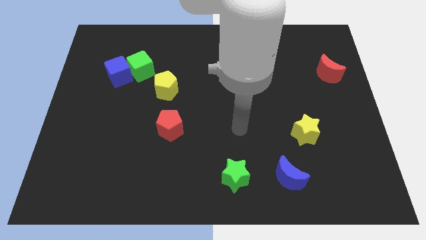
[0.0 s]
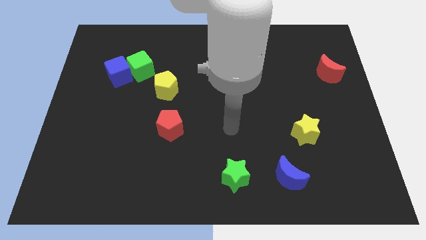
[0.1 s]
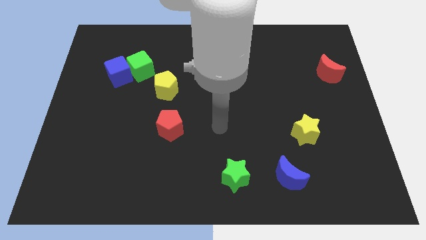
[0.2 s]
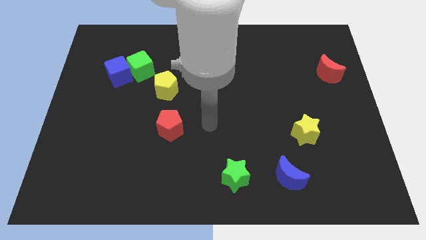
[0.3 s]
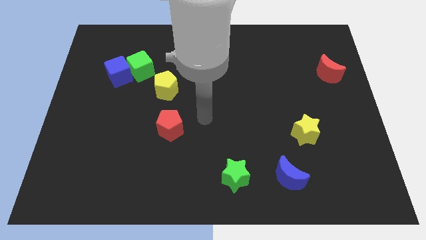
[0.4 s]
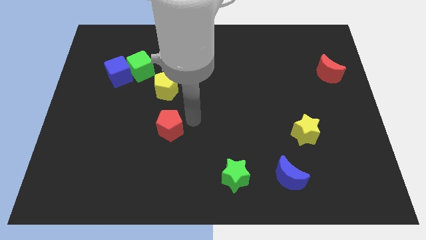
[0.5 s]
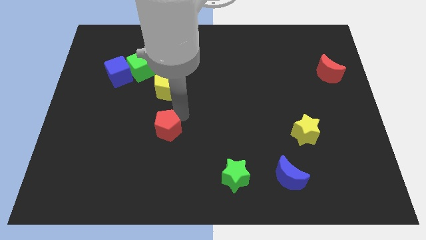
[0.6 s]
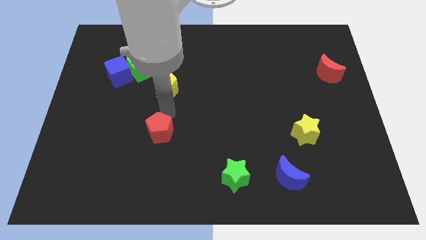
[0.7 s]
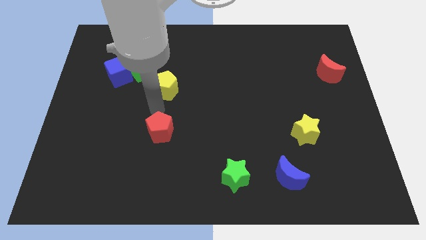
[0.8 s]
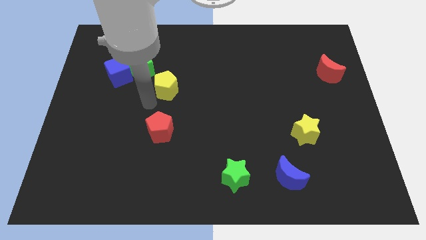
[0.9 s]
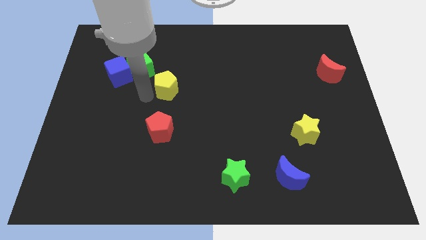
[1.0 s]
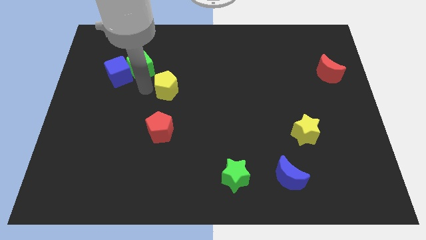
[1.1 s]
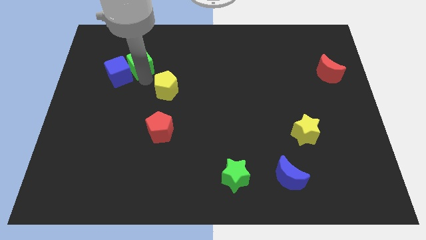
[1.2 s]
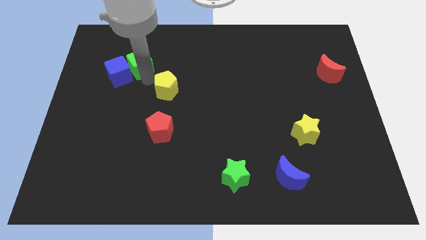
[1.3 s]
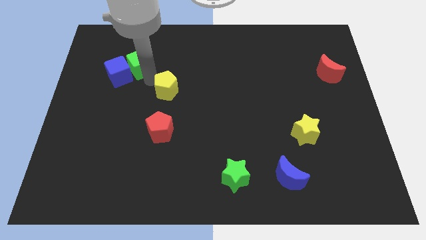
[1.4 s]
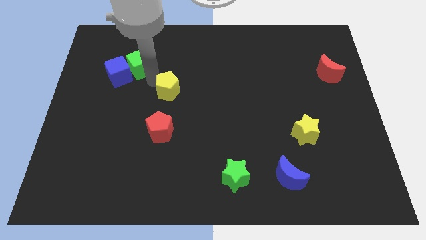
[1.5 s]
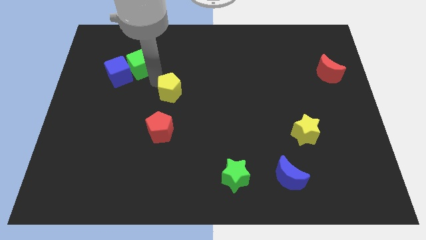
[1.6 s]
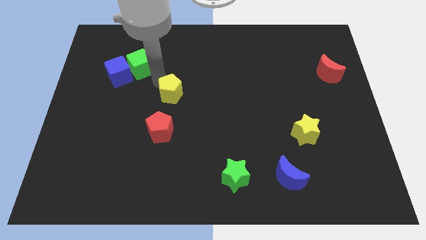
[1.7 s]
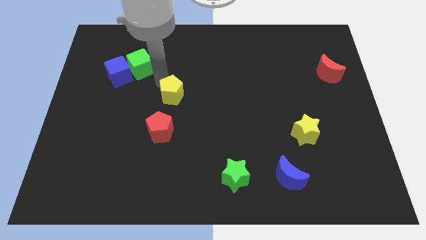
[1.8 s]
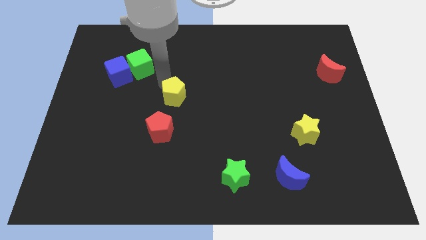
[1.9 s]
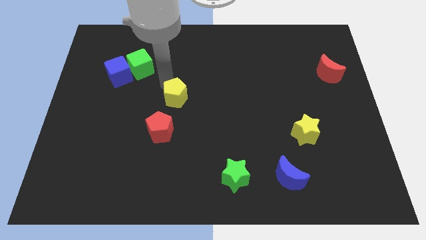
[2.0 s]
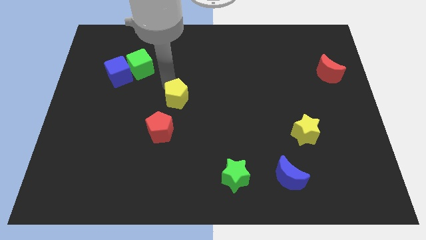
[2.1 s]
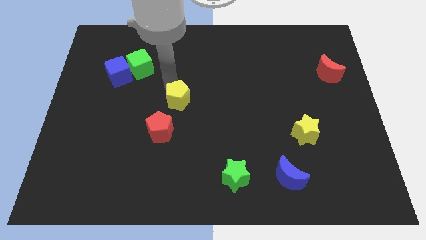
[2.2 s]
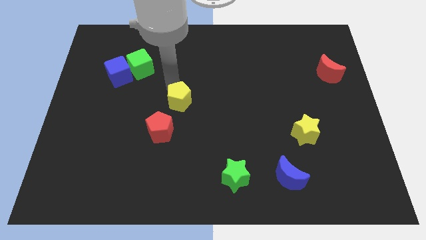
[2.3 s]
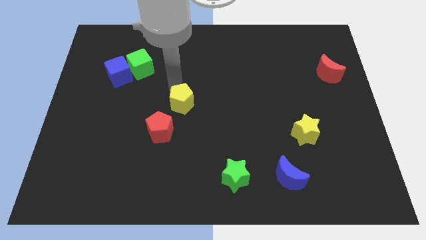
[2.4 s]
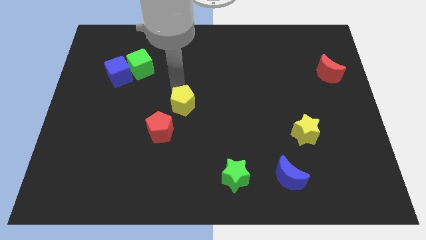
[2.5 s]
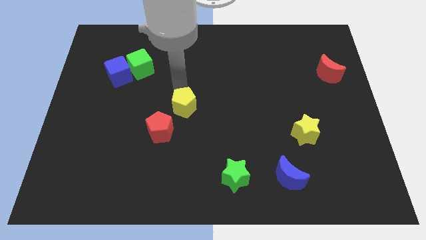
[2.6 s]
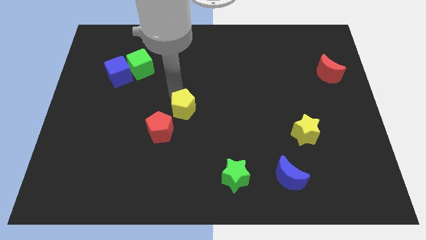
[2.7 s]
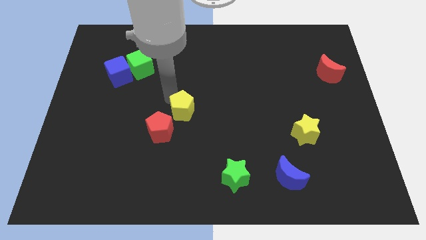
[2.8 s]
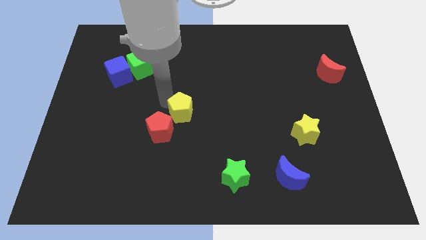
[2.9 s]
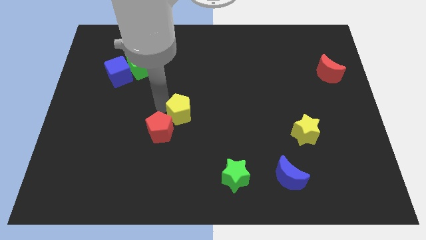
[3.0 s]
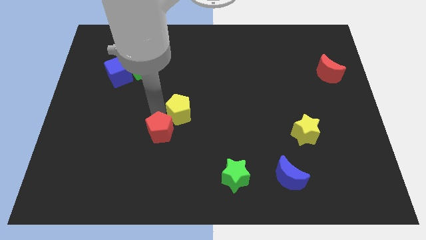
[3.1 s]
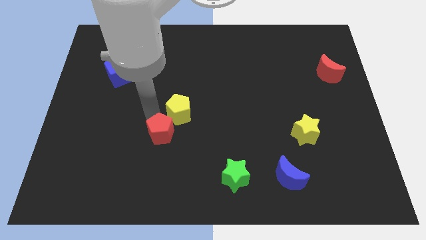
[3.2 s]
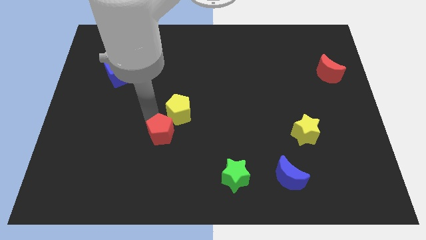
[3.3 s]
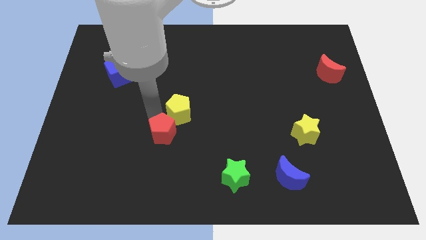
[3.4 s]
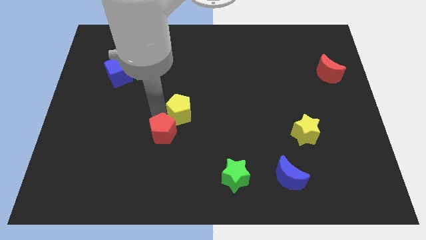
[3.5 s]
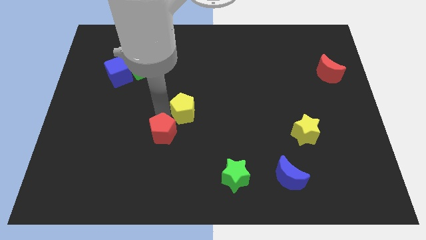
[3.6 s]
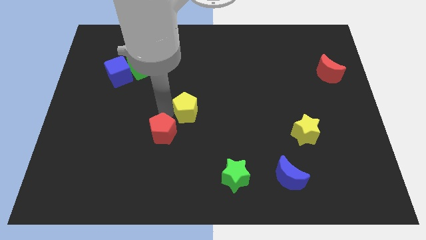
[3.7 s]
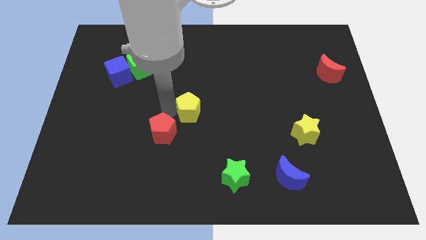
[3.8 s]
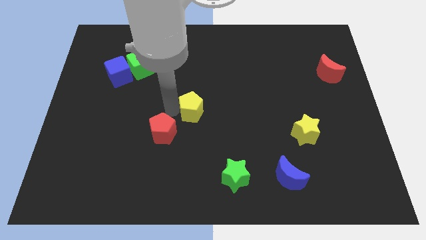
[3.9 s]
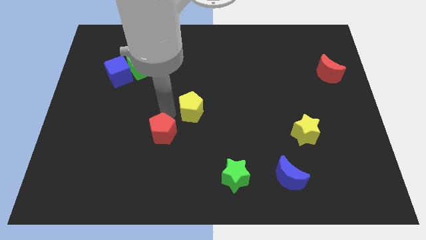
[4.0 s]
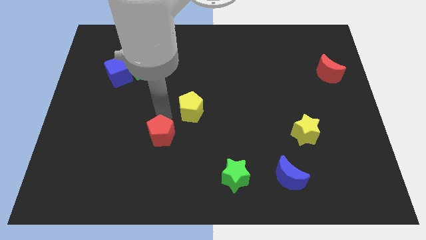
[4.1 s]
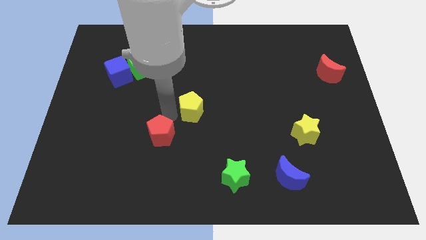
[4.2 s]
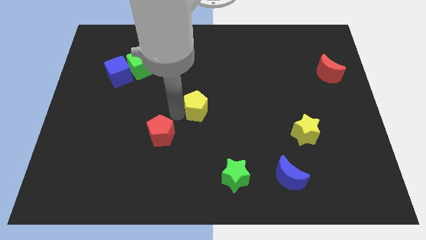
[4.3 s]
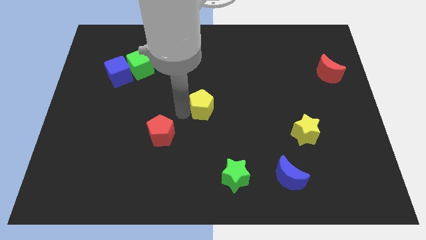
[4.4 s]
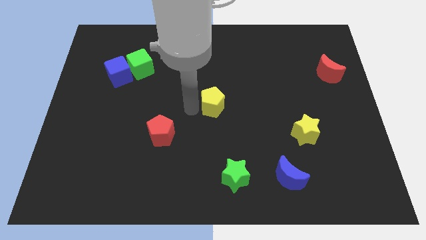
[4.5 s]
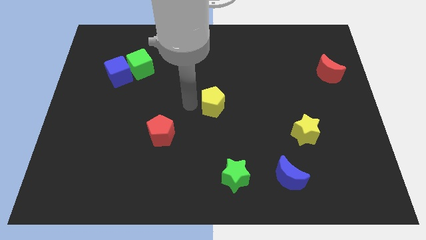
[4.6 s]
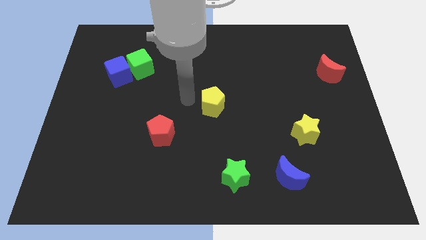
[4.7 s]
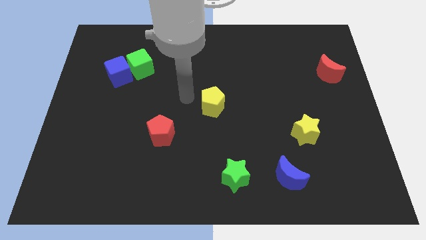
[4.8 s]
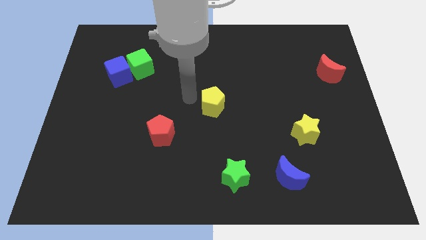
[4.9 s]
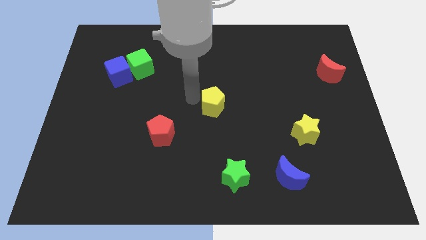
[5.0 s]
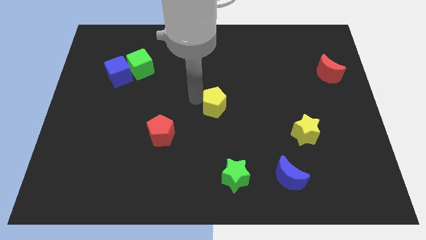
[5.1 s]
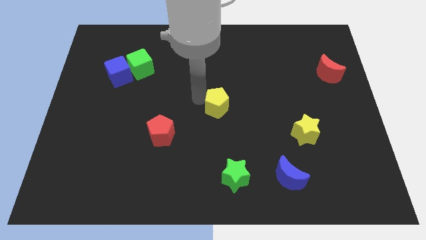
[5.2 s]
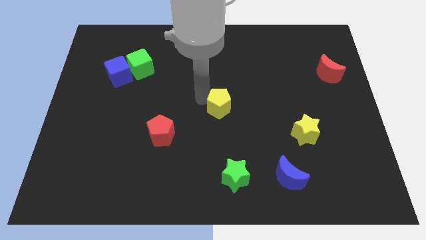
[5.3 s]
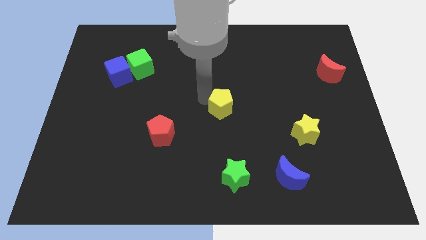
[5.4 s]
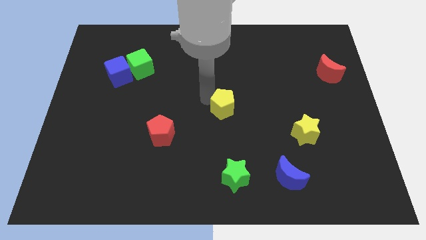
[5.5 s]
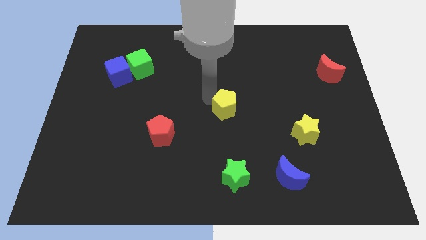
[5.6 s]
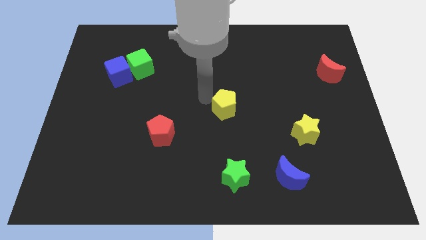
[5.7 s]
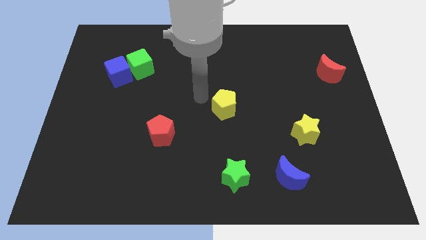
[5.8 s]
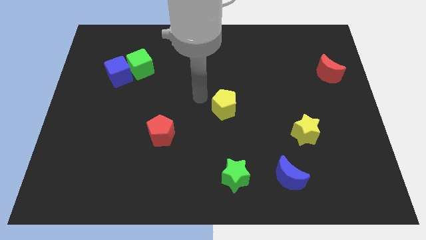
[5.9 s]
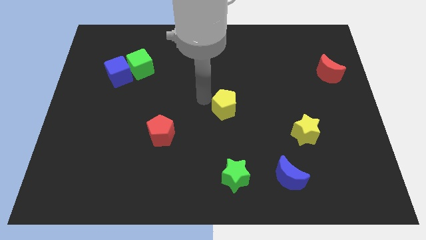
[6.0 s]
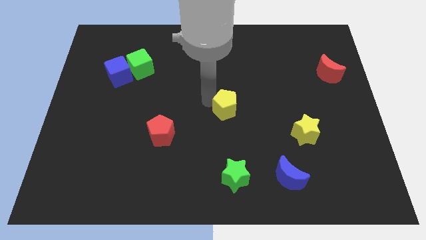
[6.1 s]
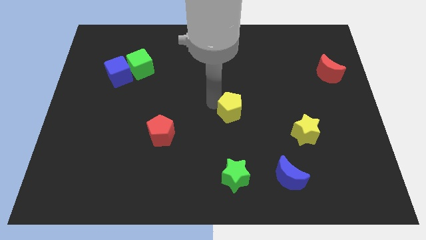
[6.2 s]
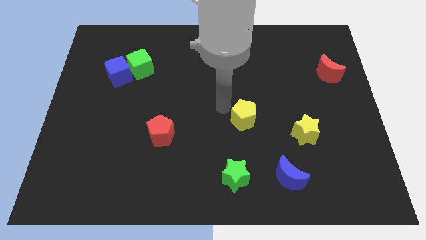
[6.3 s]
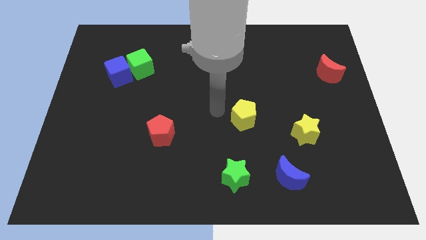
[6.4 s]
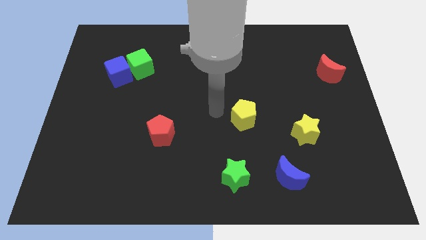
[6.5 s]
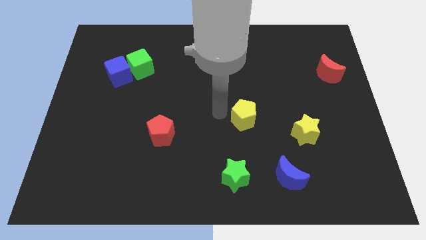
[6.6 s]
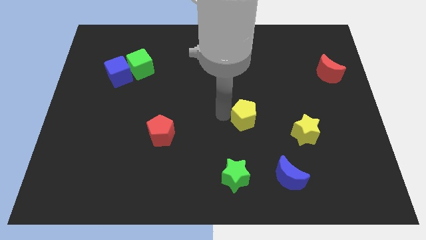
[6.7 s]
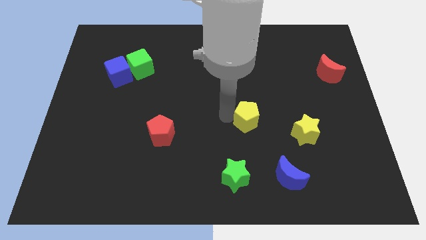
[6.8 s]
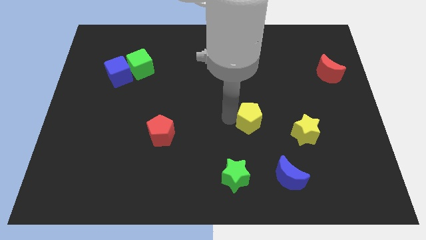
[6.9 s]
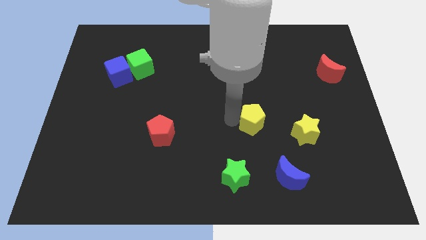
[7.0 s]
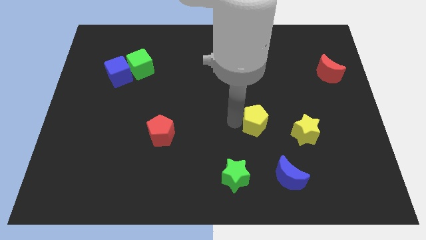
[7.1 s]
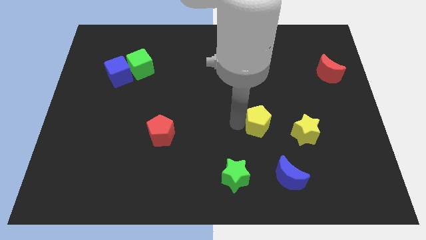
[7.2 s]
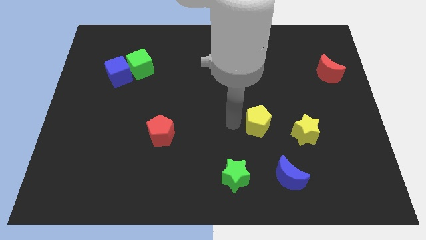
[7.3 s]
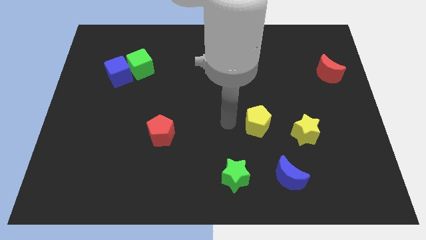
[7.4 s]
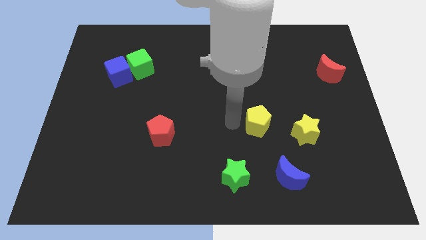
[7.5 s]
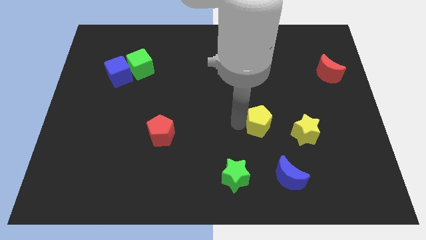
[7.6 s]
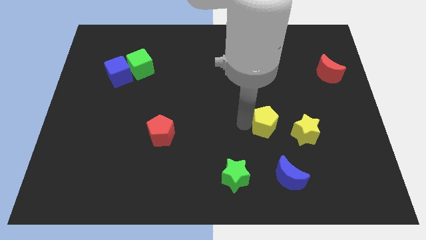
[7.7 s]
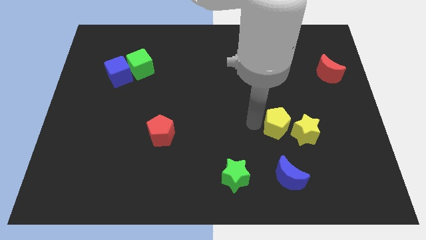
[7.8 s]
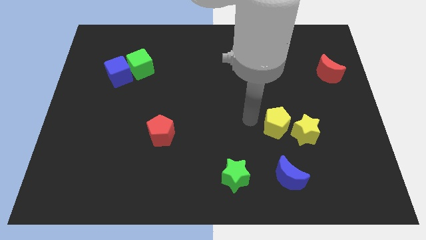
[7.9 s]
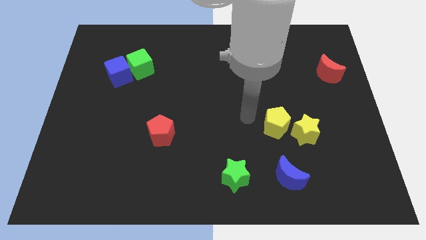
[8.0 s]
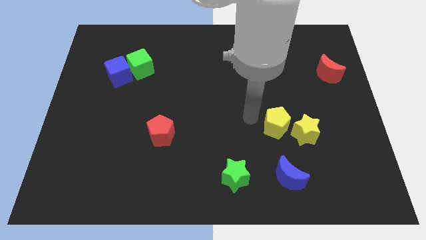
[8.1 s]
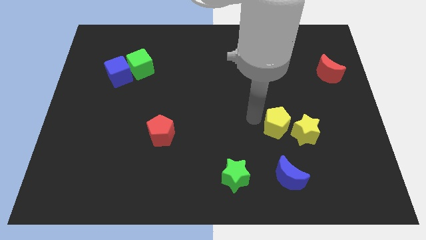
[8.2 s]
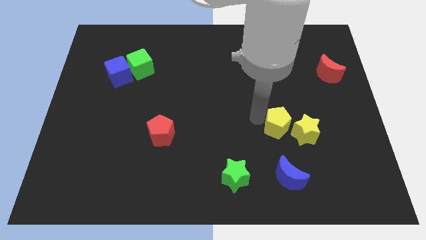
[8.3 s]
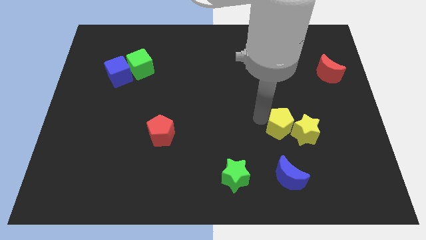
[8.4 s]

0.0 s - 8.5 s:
slide the yellow pentagon close to the yellow star
